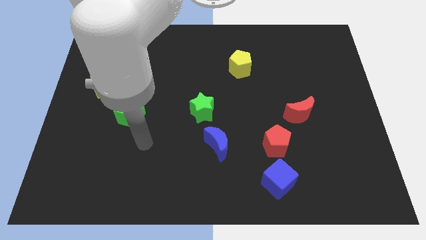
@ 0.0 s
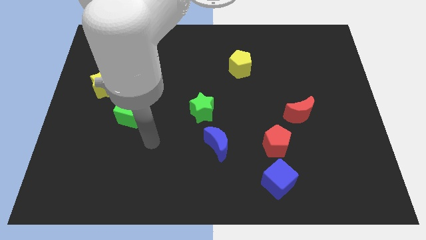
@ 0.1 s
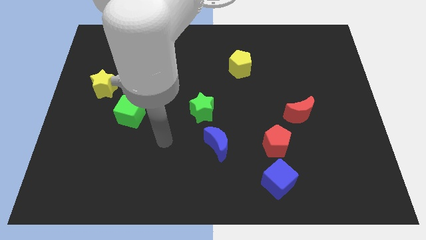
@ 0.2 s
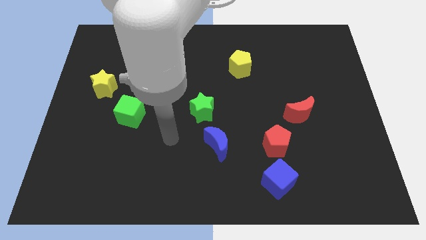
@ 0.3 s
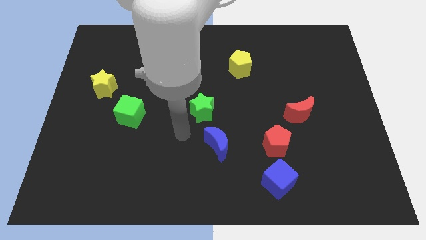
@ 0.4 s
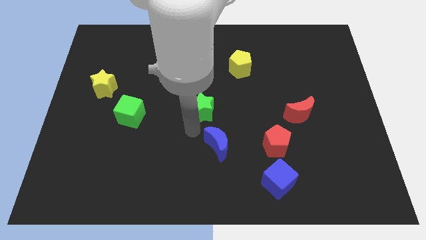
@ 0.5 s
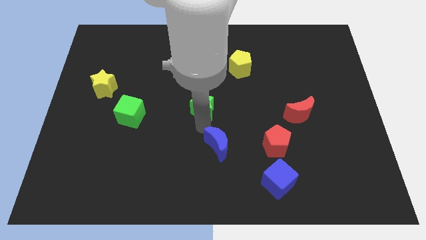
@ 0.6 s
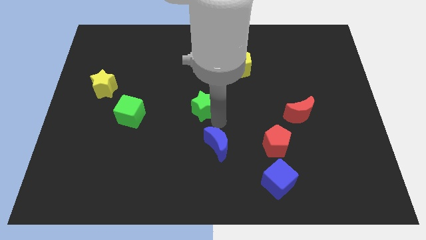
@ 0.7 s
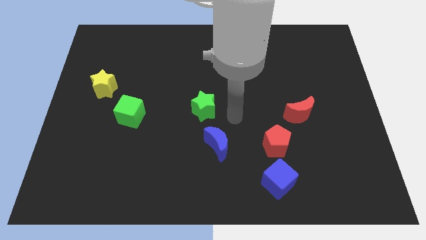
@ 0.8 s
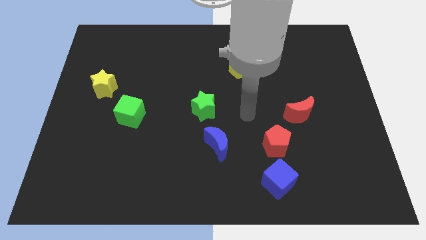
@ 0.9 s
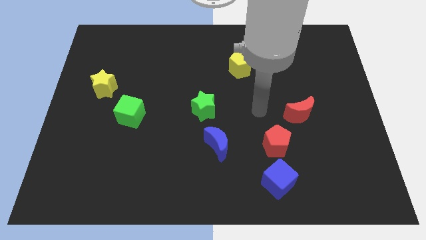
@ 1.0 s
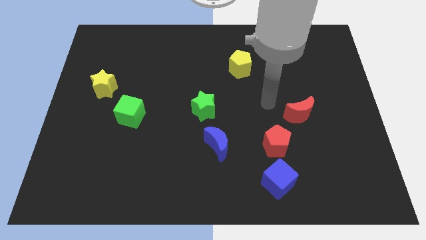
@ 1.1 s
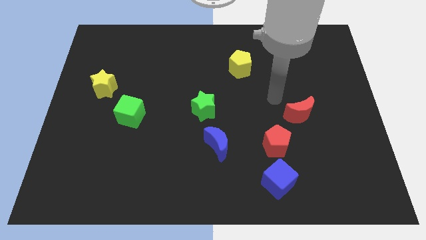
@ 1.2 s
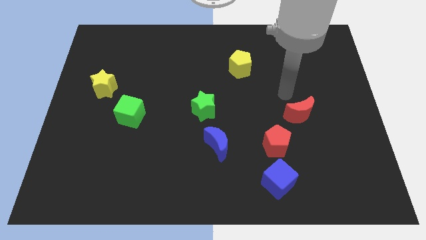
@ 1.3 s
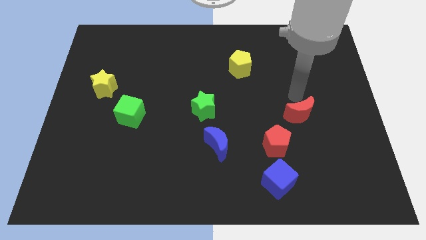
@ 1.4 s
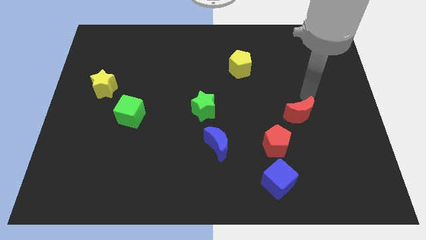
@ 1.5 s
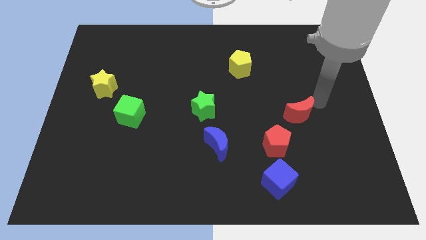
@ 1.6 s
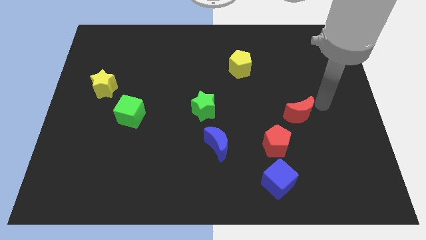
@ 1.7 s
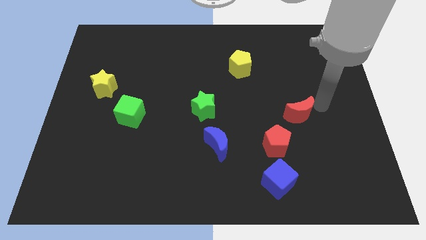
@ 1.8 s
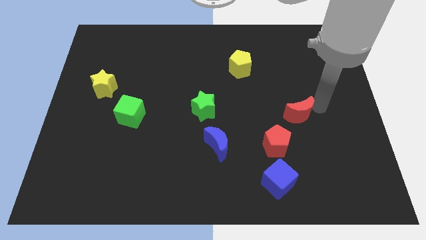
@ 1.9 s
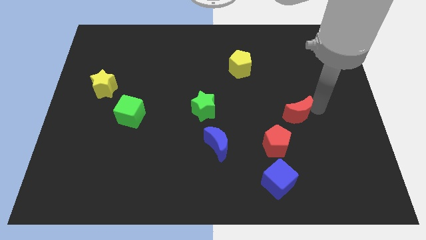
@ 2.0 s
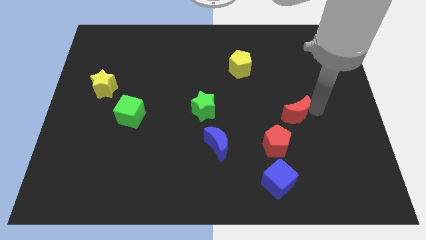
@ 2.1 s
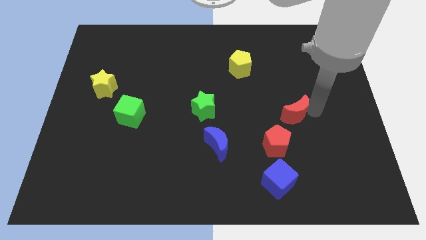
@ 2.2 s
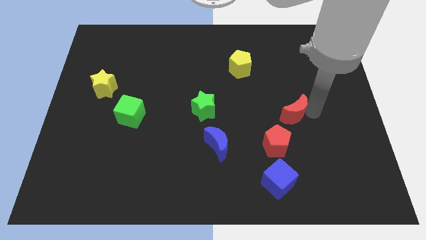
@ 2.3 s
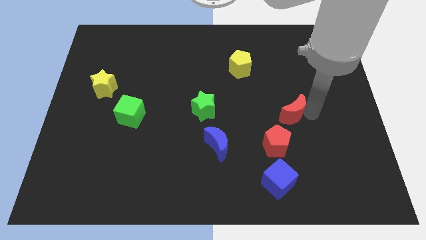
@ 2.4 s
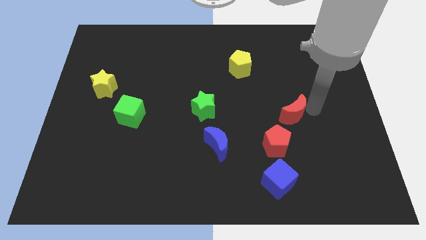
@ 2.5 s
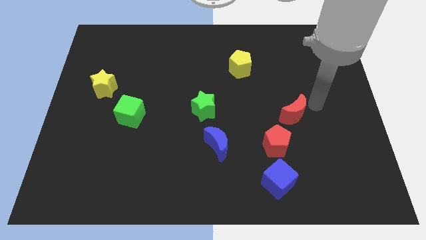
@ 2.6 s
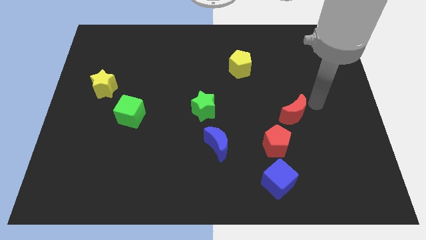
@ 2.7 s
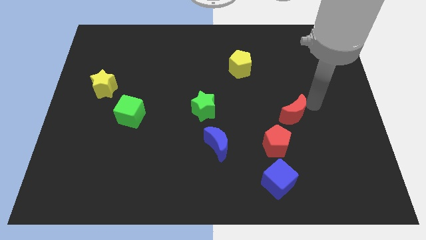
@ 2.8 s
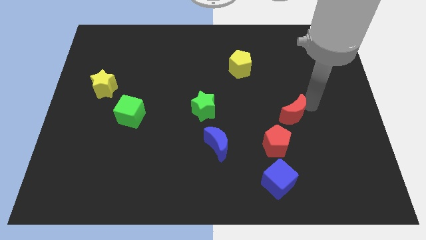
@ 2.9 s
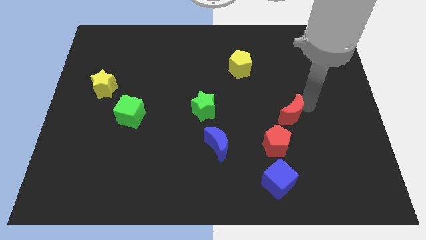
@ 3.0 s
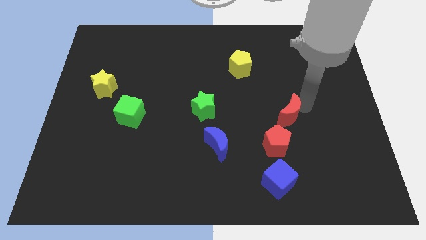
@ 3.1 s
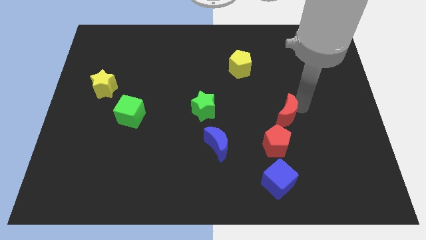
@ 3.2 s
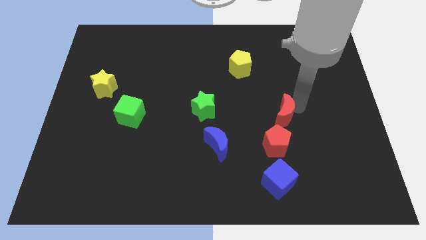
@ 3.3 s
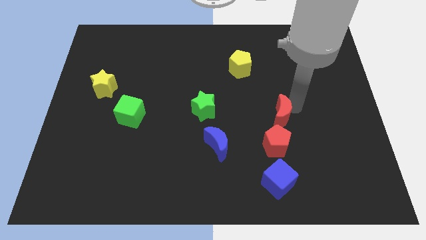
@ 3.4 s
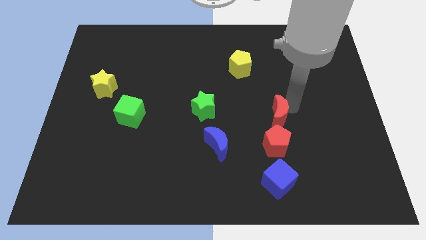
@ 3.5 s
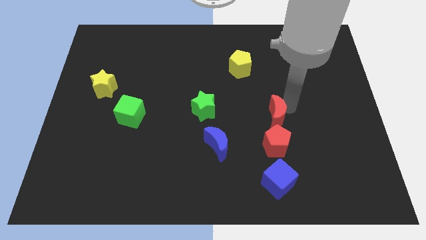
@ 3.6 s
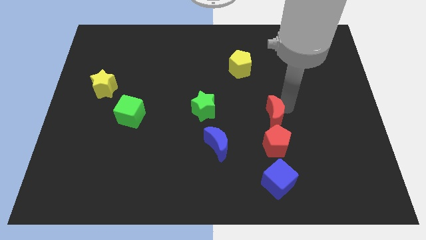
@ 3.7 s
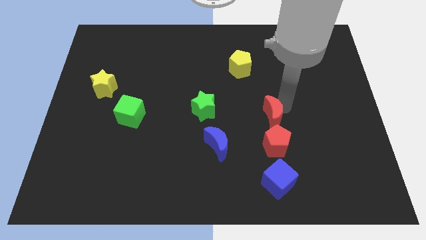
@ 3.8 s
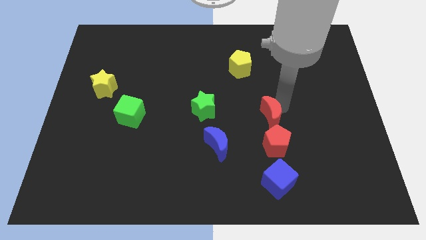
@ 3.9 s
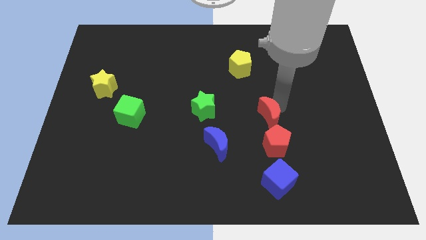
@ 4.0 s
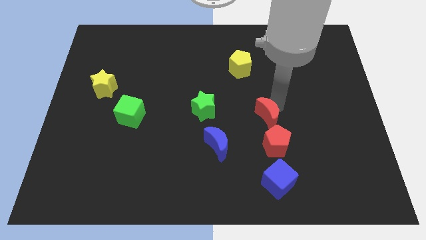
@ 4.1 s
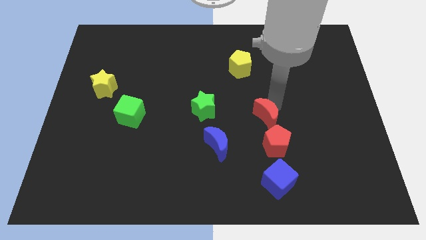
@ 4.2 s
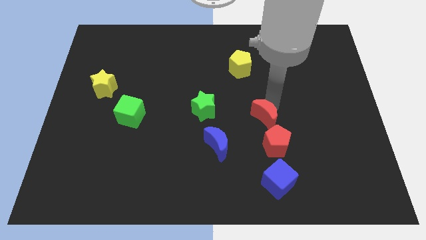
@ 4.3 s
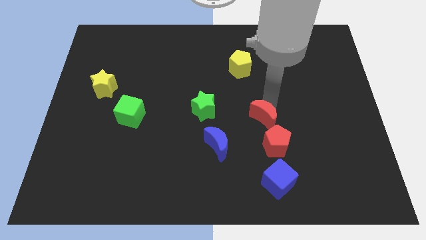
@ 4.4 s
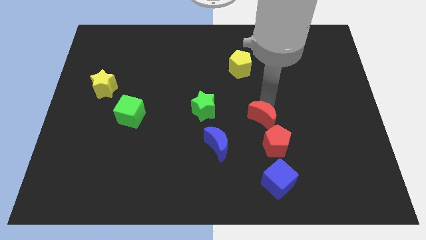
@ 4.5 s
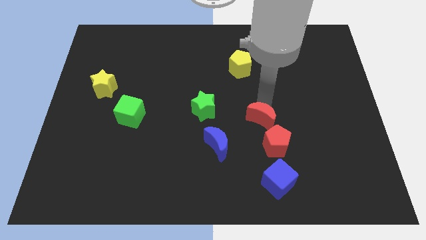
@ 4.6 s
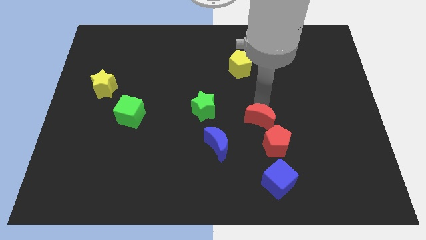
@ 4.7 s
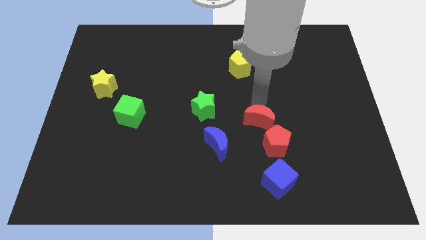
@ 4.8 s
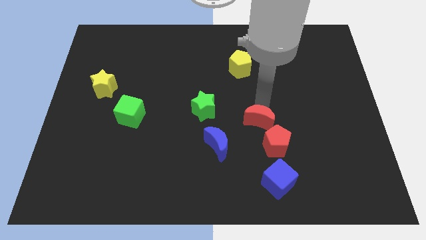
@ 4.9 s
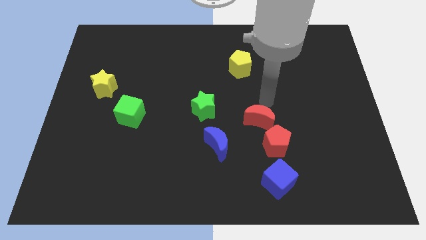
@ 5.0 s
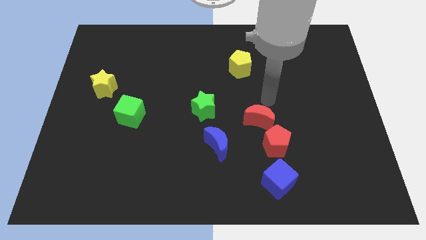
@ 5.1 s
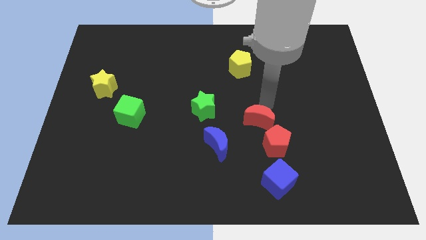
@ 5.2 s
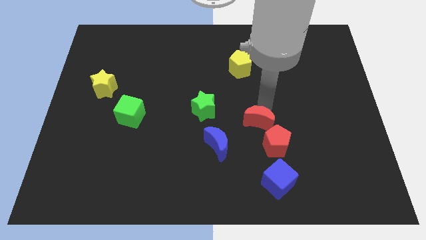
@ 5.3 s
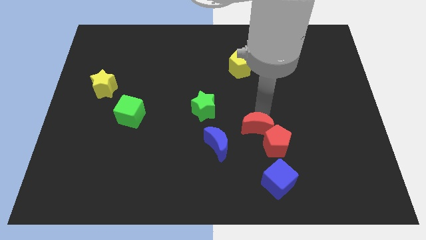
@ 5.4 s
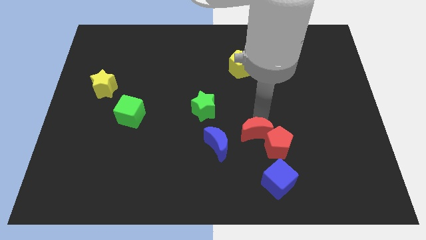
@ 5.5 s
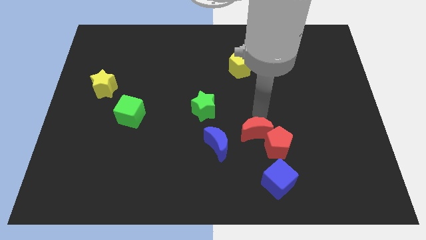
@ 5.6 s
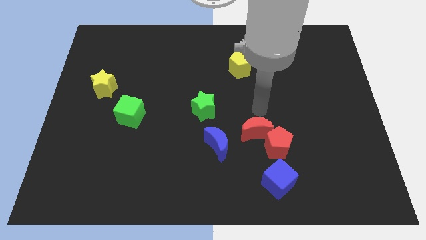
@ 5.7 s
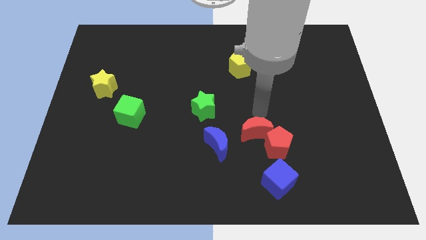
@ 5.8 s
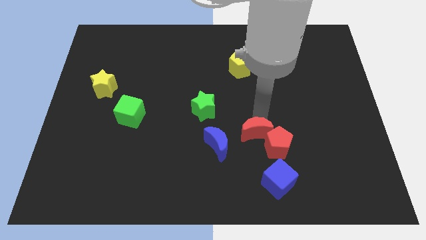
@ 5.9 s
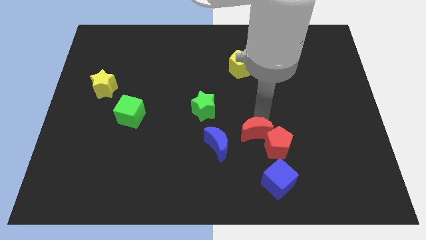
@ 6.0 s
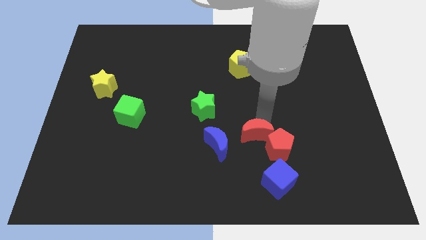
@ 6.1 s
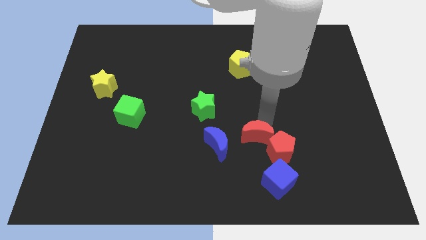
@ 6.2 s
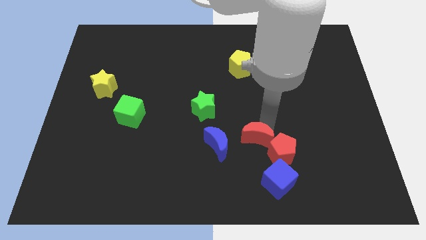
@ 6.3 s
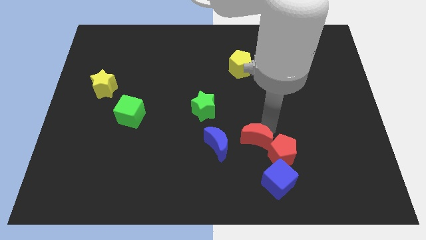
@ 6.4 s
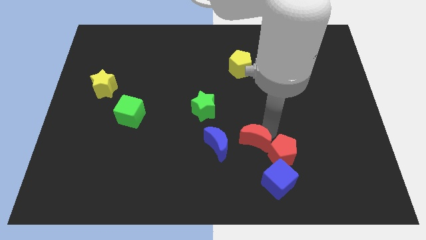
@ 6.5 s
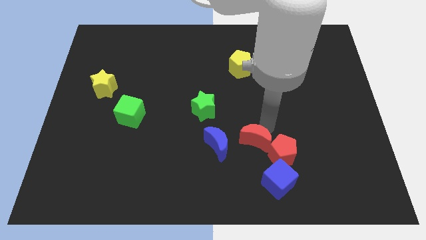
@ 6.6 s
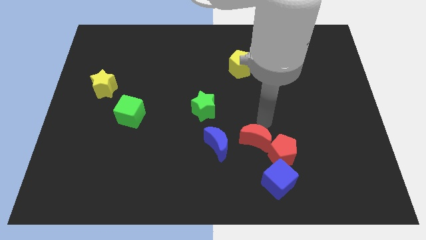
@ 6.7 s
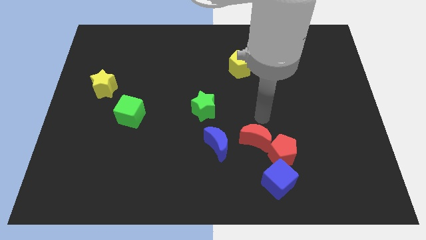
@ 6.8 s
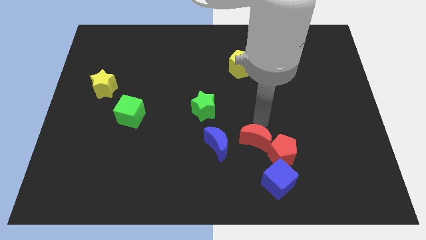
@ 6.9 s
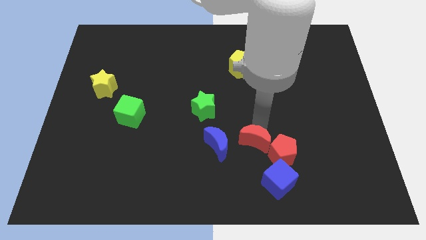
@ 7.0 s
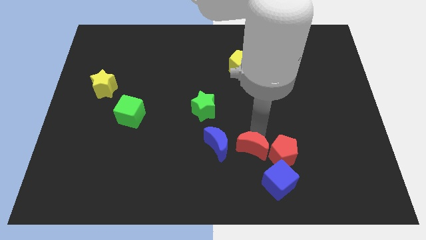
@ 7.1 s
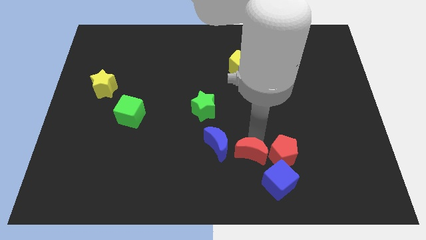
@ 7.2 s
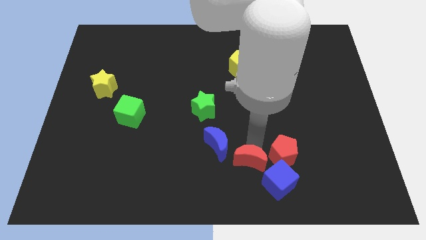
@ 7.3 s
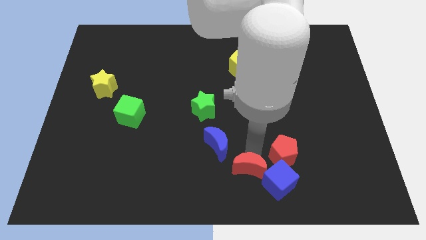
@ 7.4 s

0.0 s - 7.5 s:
push the red moon to the bottom
